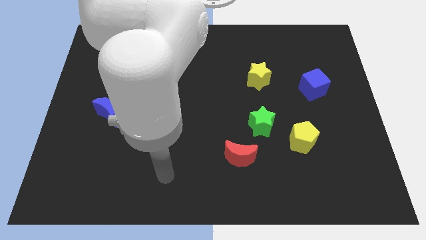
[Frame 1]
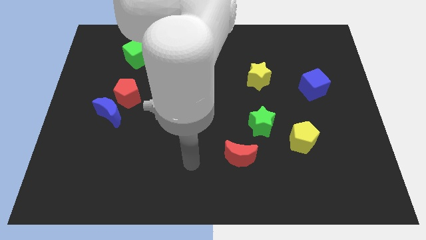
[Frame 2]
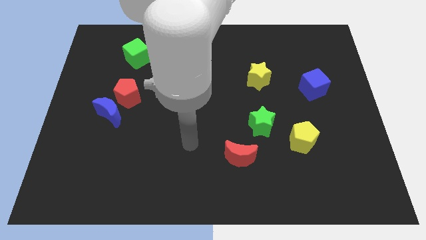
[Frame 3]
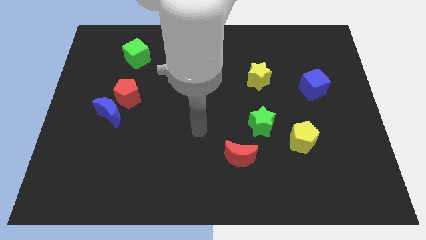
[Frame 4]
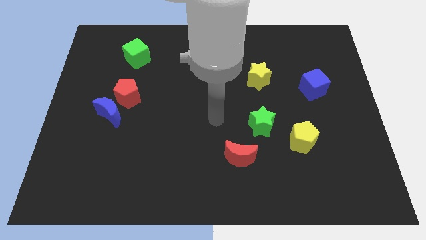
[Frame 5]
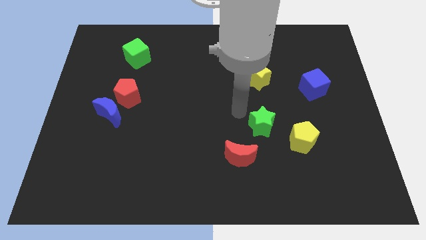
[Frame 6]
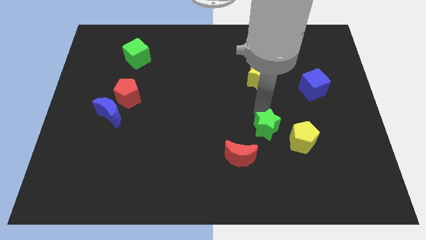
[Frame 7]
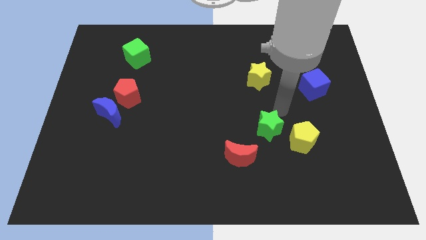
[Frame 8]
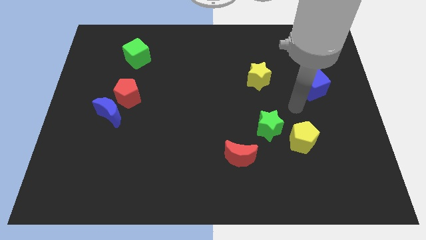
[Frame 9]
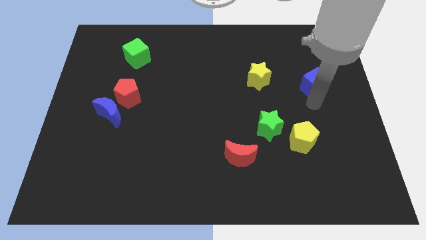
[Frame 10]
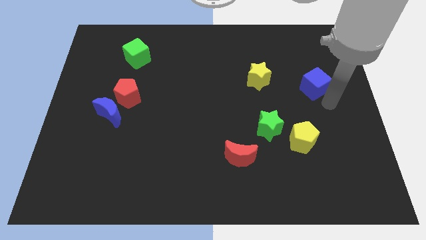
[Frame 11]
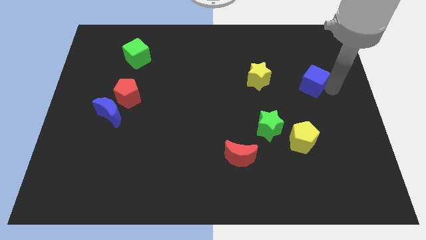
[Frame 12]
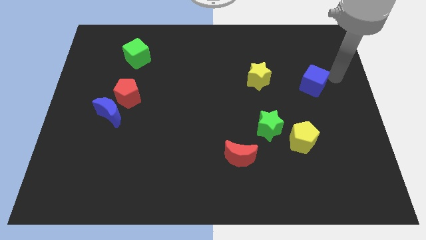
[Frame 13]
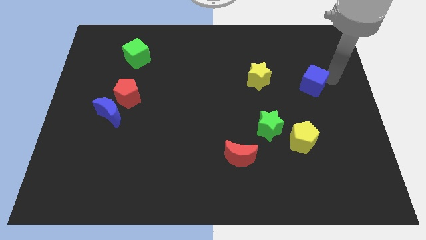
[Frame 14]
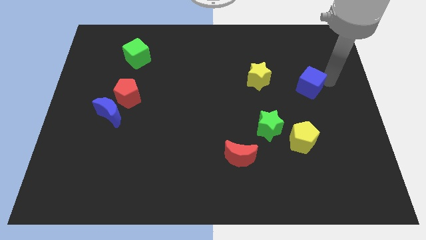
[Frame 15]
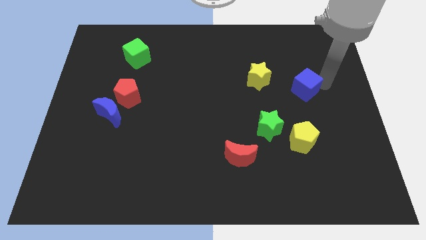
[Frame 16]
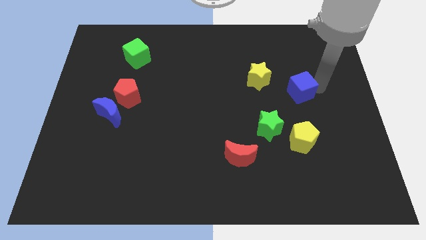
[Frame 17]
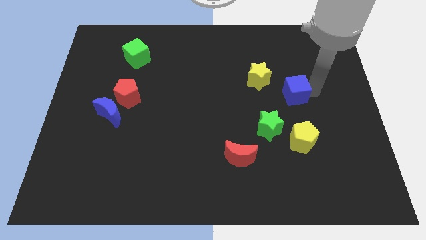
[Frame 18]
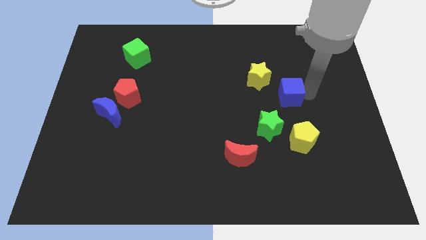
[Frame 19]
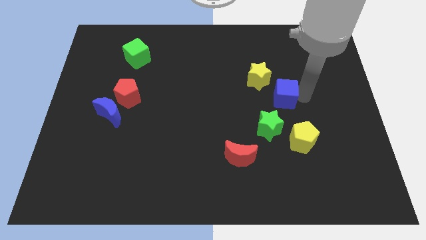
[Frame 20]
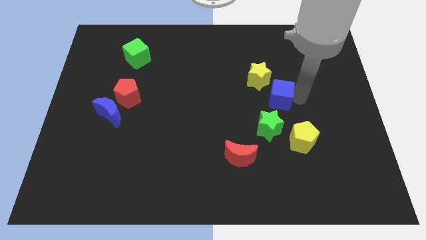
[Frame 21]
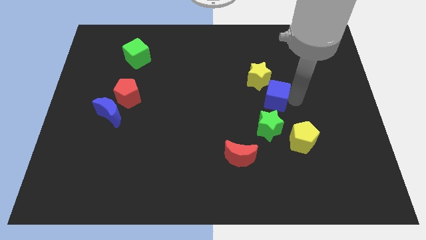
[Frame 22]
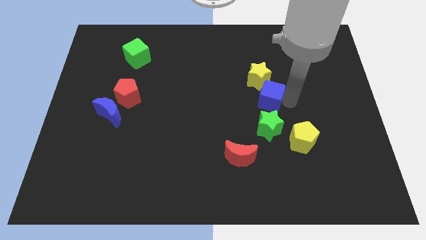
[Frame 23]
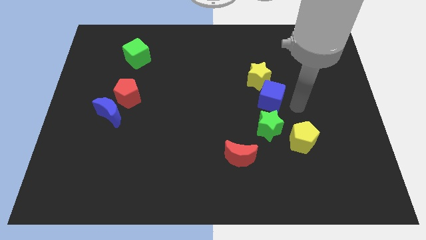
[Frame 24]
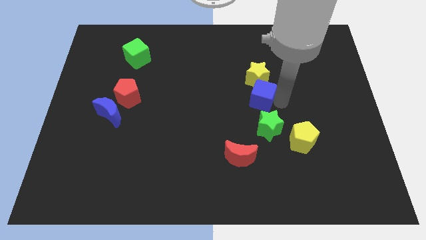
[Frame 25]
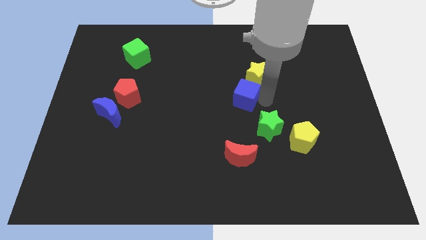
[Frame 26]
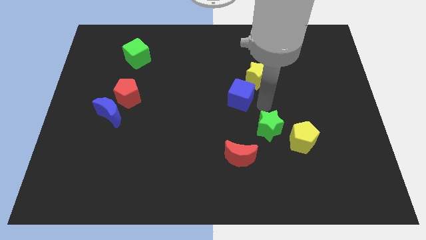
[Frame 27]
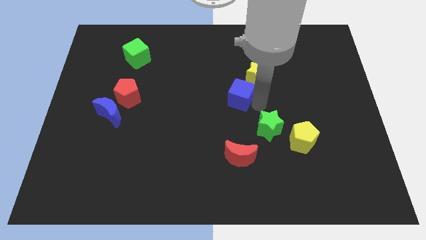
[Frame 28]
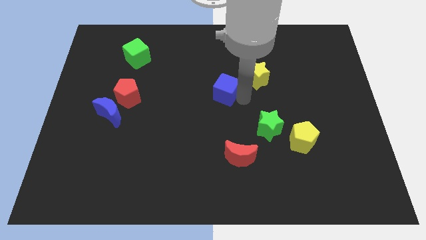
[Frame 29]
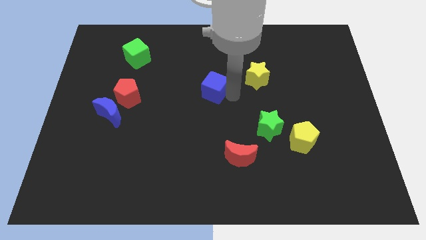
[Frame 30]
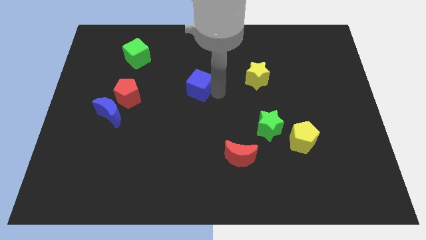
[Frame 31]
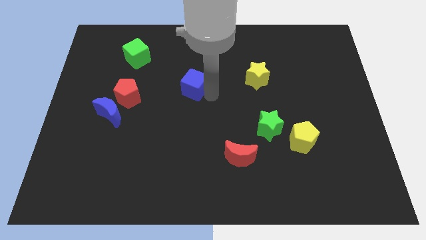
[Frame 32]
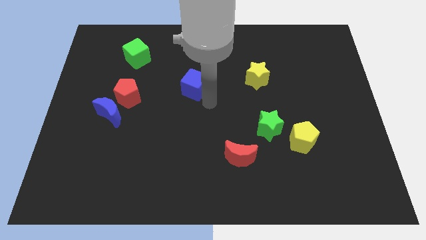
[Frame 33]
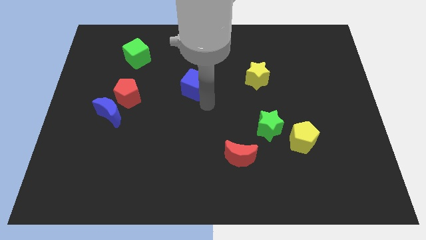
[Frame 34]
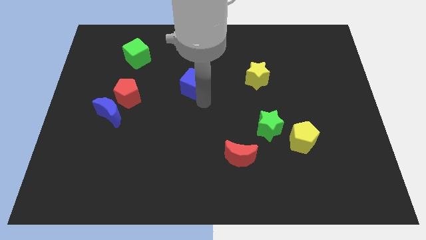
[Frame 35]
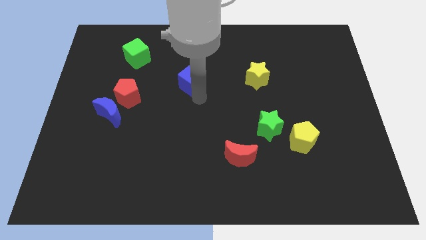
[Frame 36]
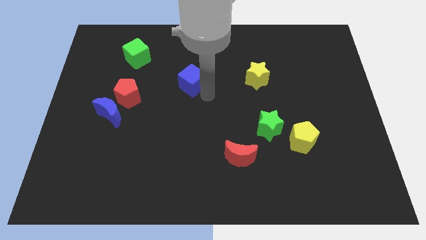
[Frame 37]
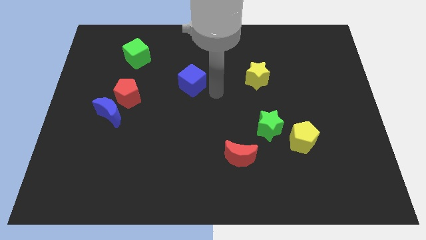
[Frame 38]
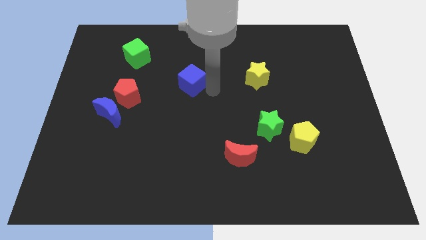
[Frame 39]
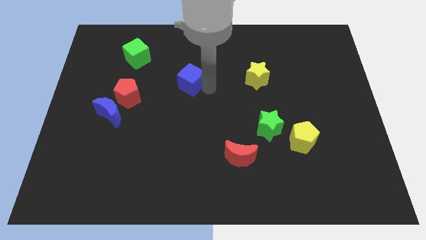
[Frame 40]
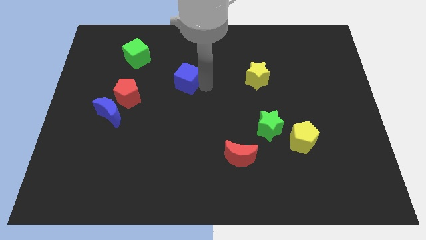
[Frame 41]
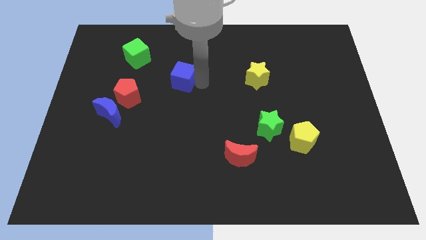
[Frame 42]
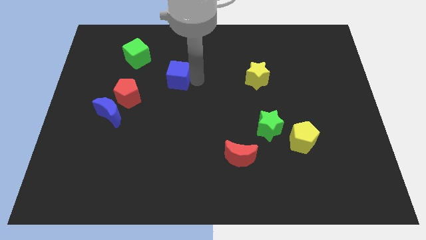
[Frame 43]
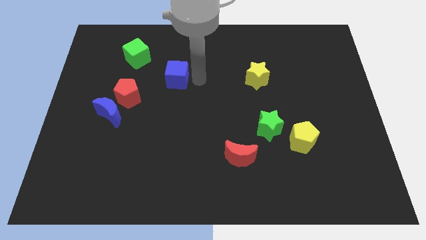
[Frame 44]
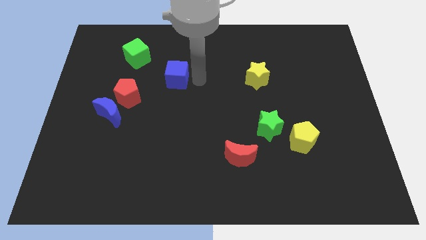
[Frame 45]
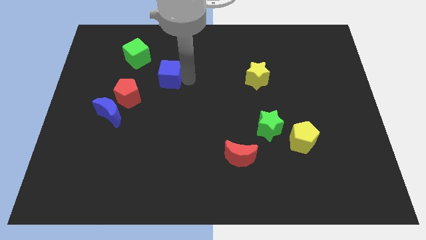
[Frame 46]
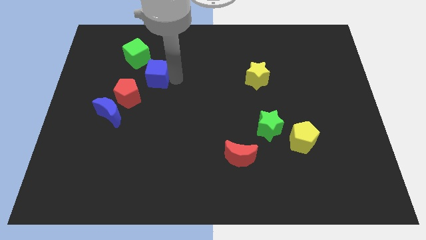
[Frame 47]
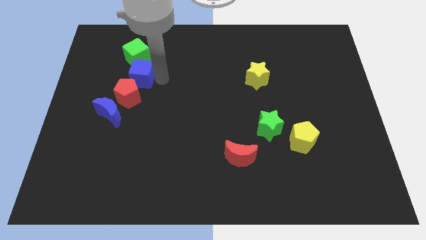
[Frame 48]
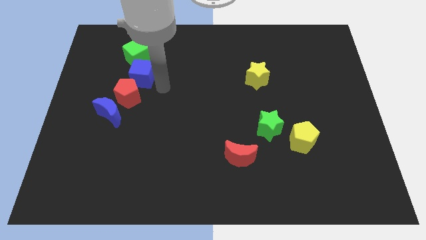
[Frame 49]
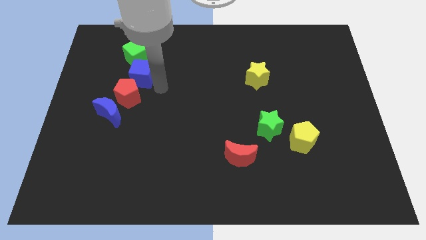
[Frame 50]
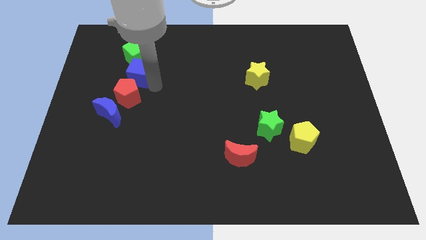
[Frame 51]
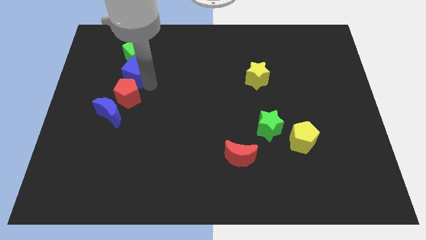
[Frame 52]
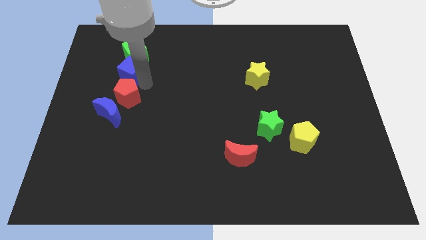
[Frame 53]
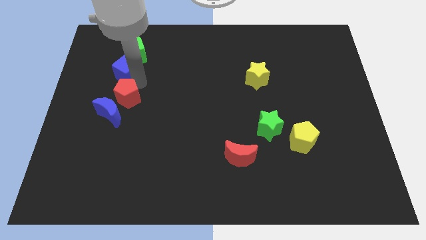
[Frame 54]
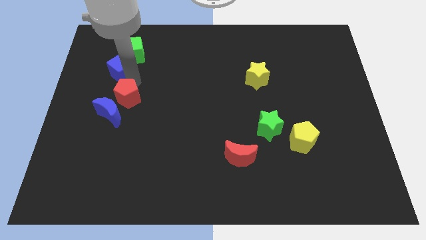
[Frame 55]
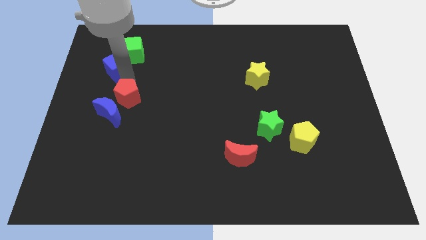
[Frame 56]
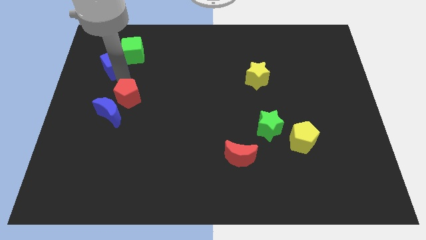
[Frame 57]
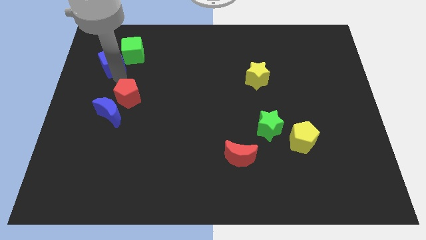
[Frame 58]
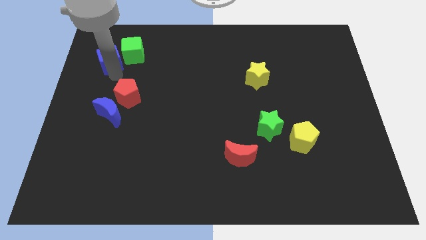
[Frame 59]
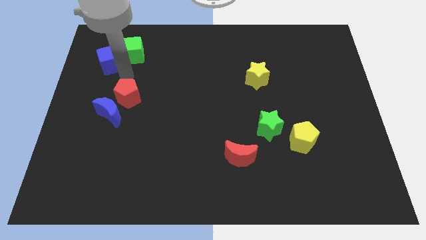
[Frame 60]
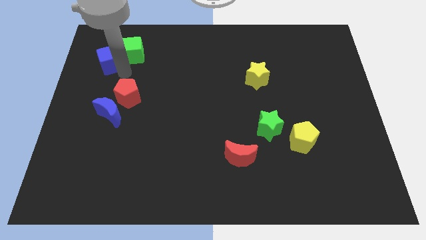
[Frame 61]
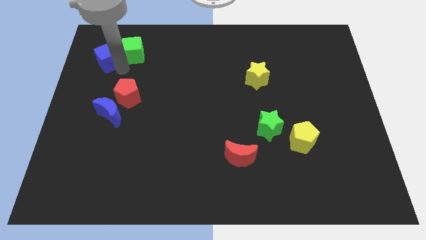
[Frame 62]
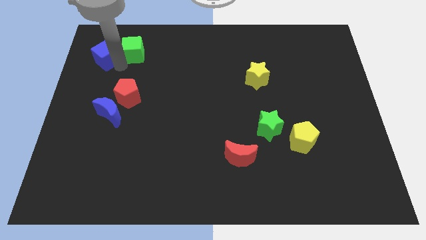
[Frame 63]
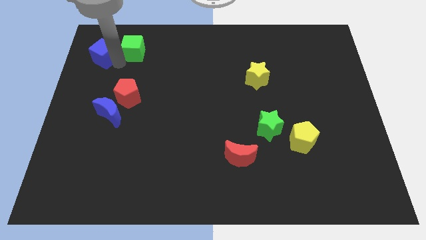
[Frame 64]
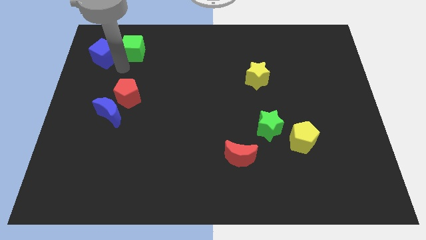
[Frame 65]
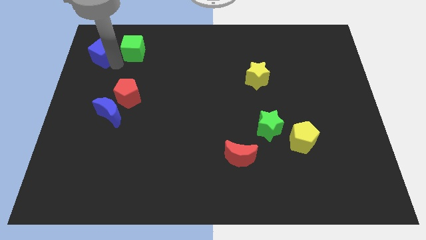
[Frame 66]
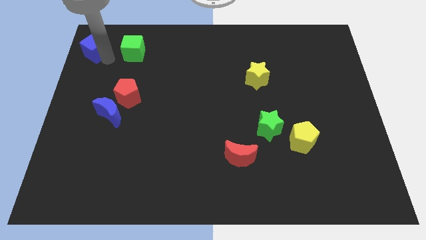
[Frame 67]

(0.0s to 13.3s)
push the blue cube to the top left corner
